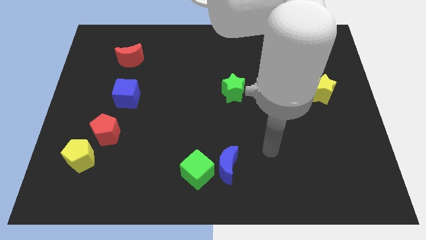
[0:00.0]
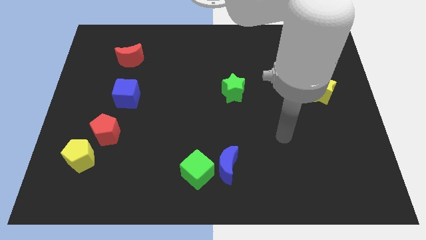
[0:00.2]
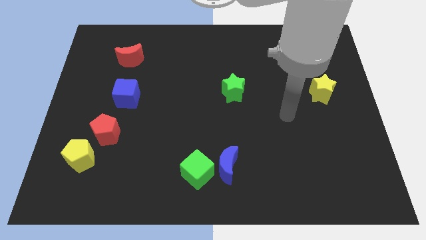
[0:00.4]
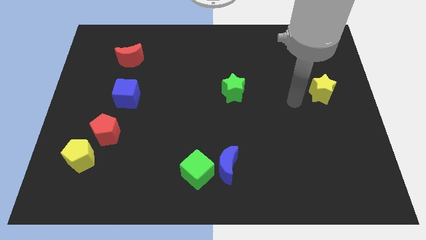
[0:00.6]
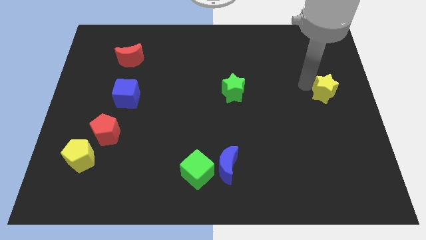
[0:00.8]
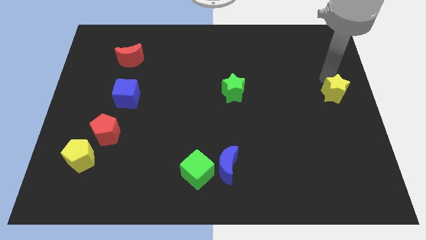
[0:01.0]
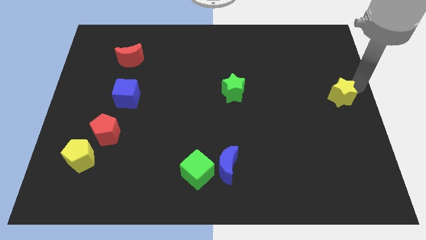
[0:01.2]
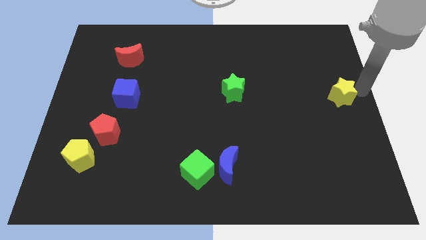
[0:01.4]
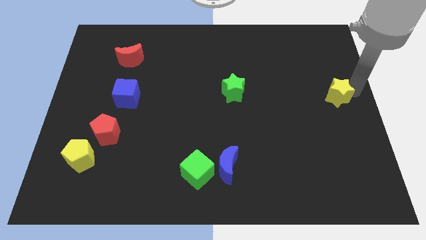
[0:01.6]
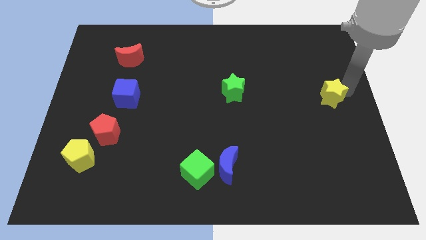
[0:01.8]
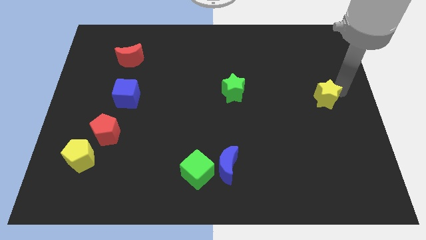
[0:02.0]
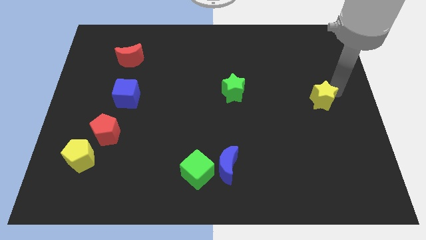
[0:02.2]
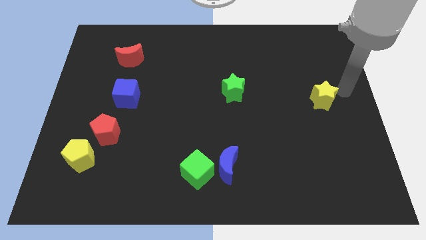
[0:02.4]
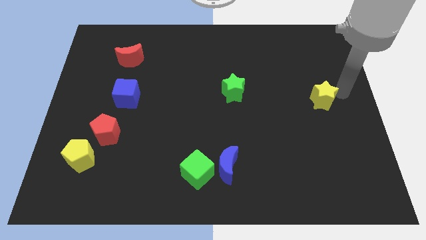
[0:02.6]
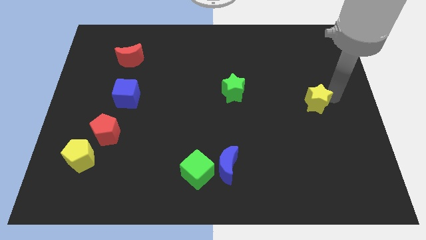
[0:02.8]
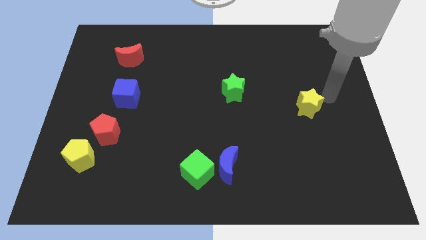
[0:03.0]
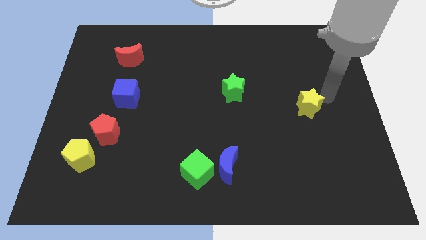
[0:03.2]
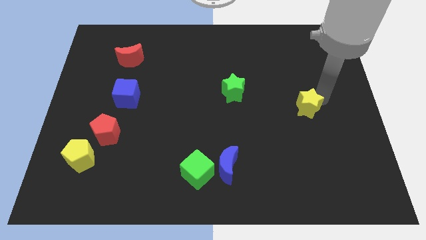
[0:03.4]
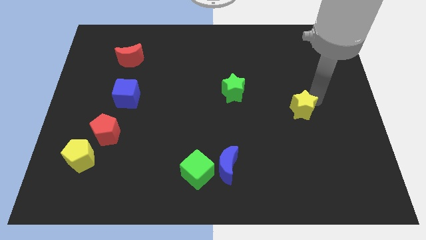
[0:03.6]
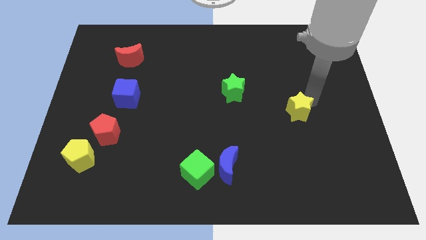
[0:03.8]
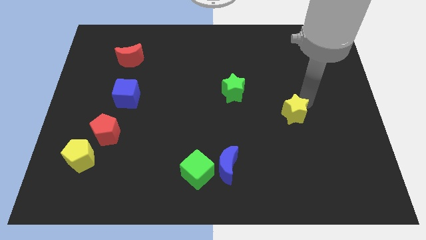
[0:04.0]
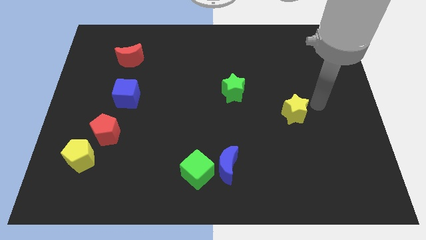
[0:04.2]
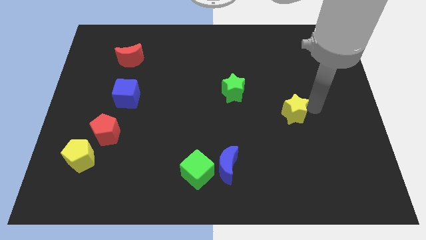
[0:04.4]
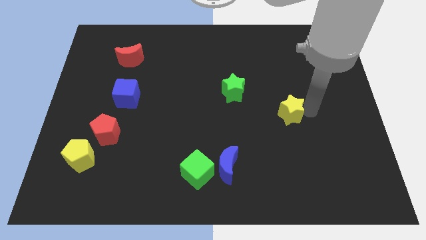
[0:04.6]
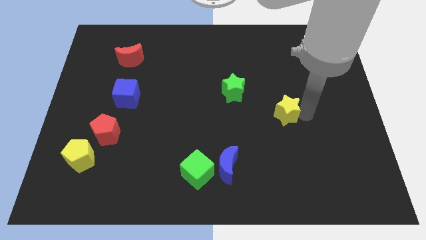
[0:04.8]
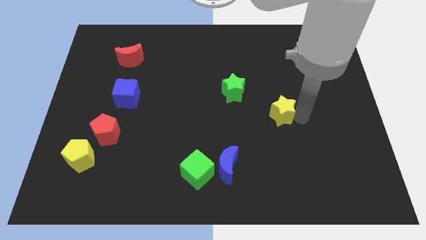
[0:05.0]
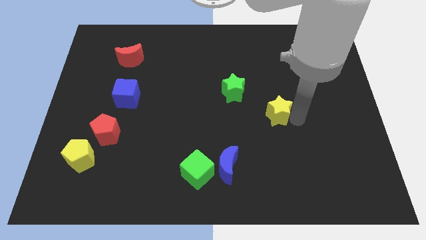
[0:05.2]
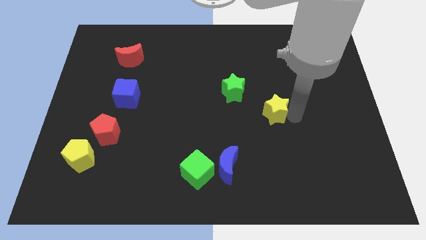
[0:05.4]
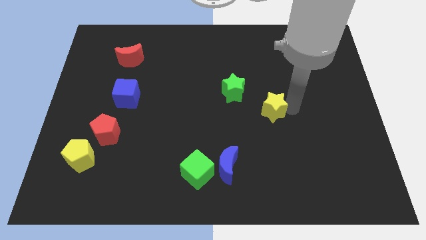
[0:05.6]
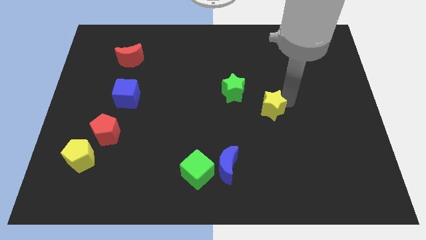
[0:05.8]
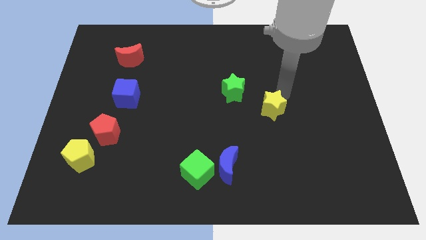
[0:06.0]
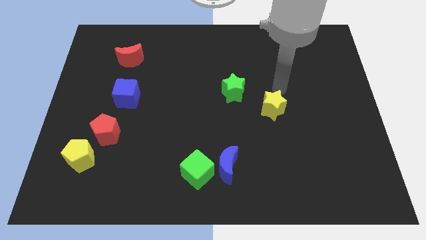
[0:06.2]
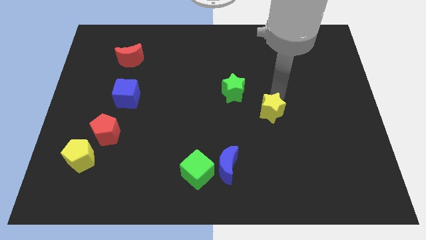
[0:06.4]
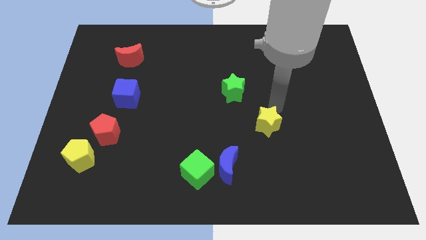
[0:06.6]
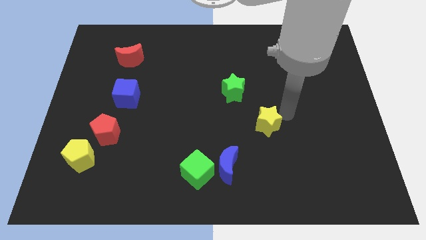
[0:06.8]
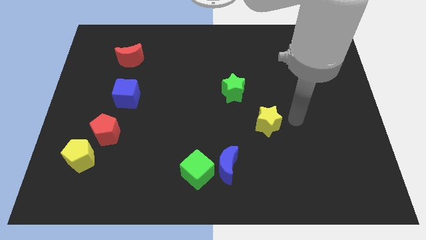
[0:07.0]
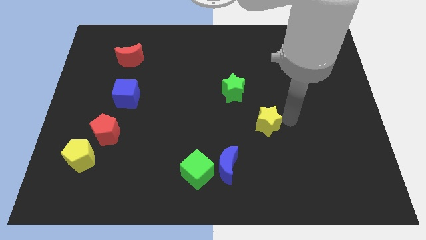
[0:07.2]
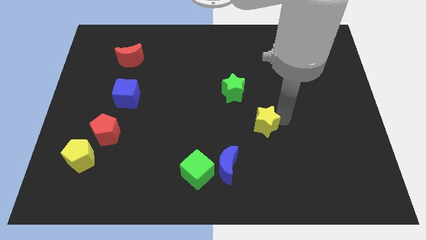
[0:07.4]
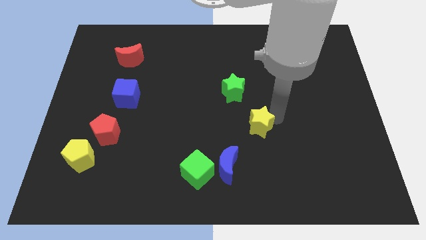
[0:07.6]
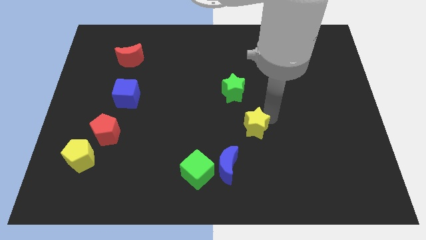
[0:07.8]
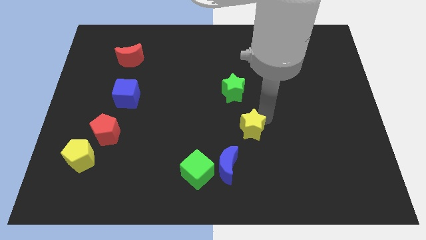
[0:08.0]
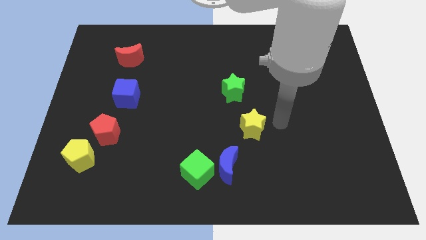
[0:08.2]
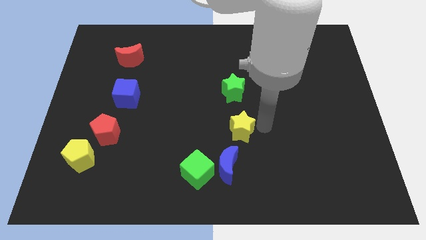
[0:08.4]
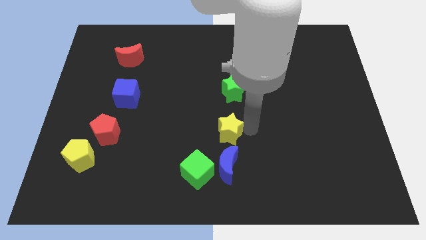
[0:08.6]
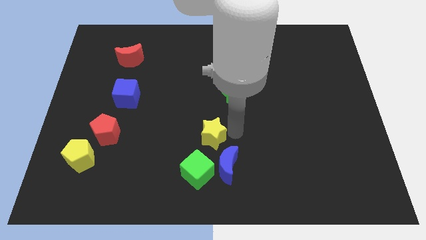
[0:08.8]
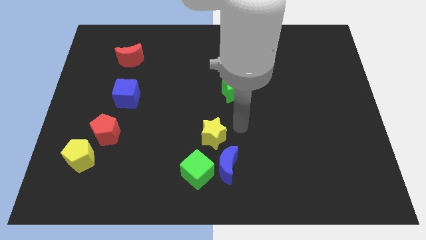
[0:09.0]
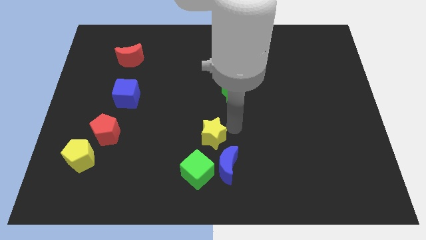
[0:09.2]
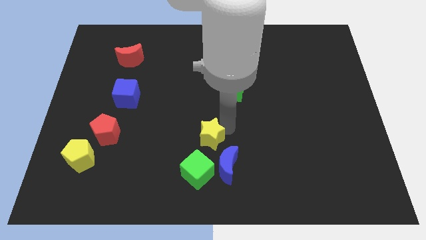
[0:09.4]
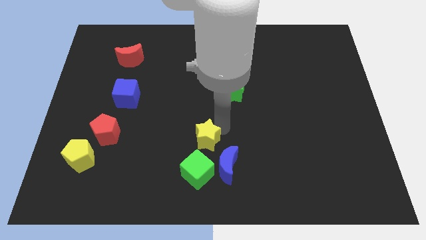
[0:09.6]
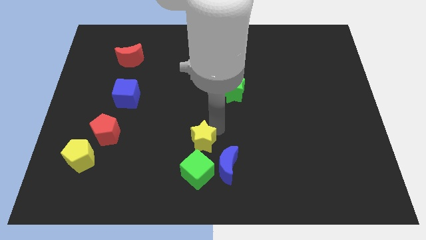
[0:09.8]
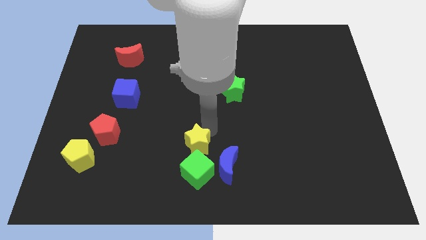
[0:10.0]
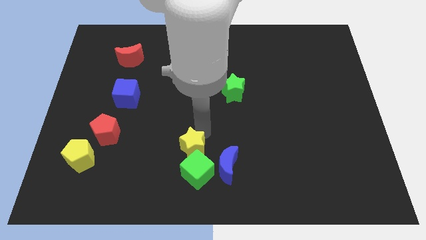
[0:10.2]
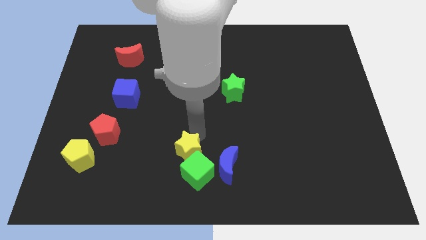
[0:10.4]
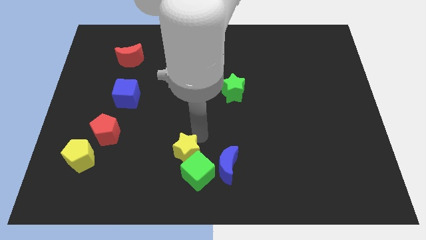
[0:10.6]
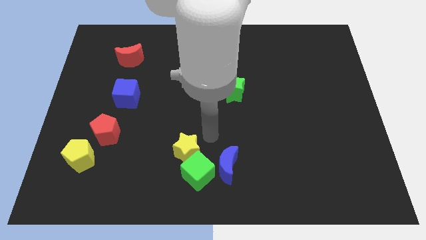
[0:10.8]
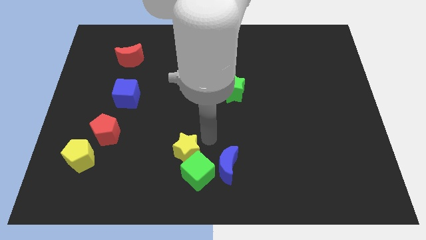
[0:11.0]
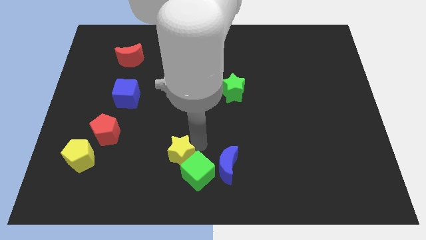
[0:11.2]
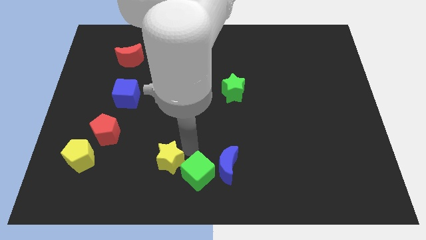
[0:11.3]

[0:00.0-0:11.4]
slide the yellow star to the left of the green cube

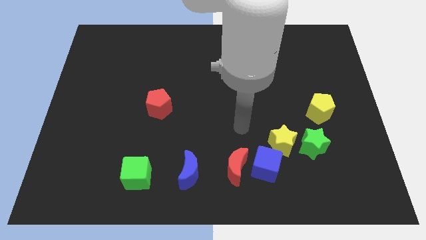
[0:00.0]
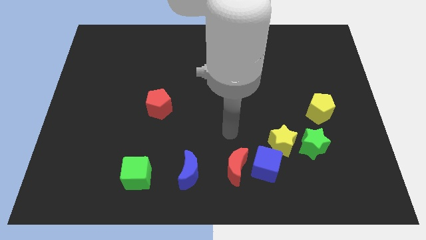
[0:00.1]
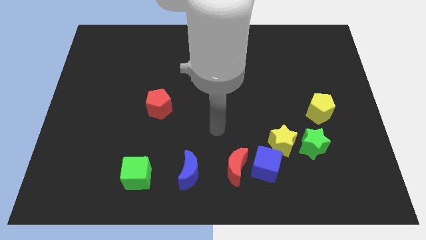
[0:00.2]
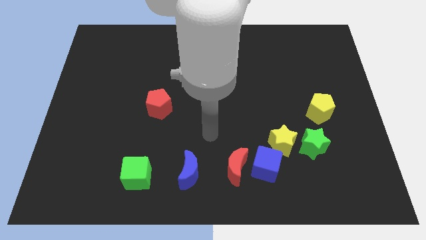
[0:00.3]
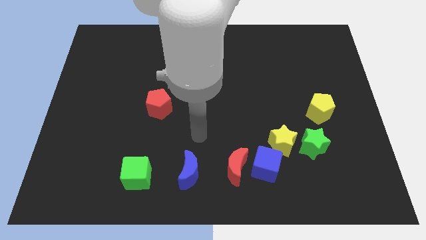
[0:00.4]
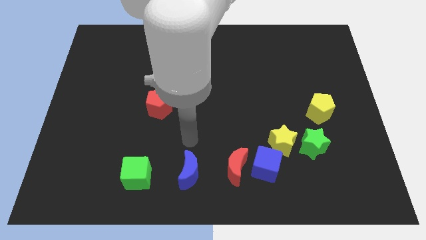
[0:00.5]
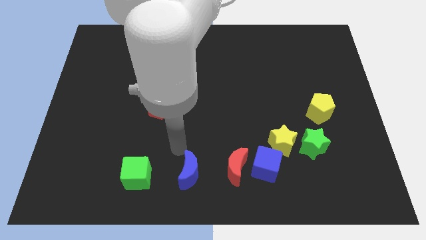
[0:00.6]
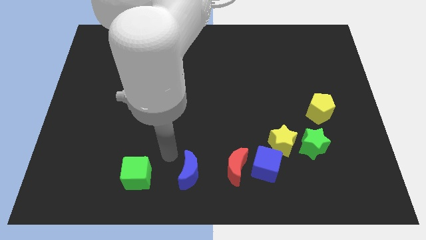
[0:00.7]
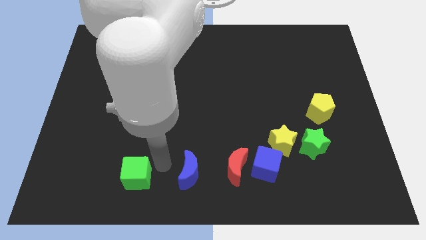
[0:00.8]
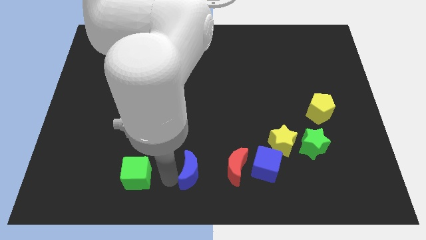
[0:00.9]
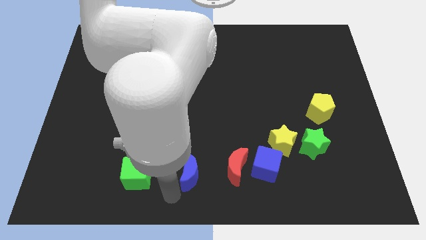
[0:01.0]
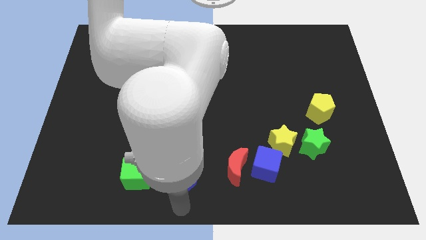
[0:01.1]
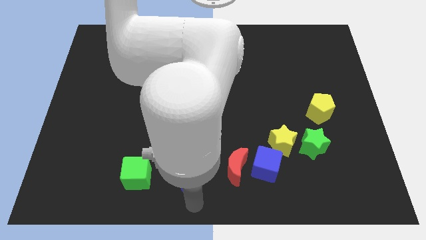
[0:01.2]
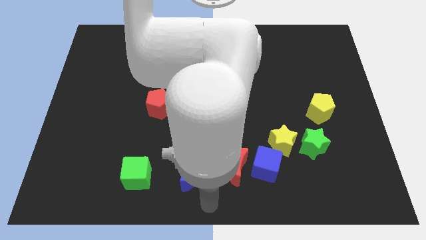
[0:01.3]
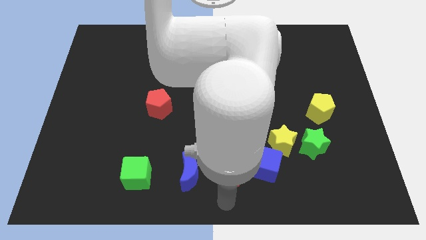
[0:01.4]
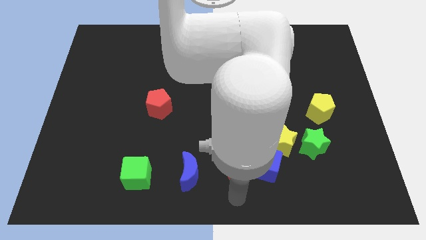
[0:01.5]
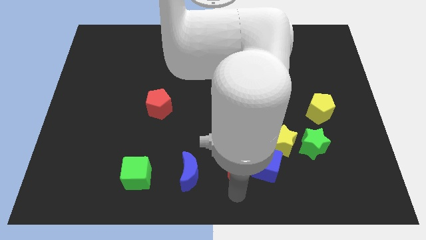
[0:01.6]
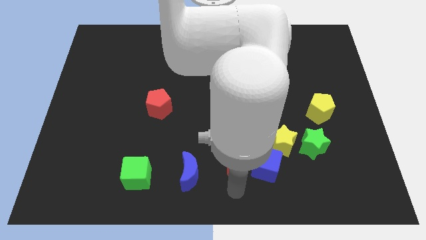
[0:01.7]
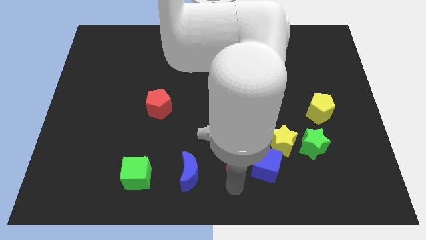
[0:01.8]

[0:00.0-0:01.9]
slide the red moon to the left side of the yellow star
